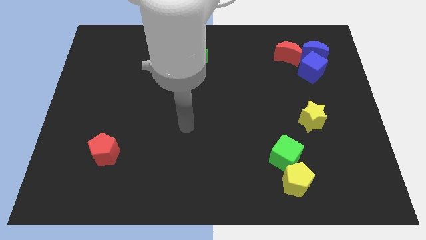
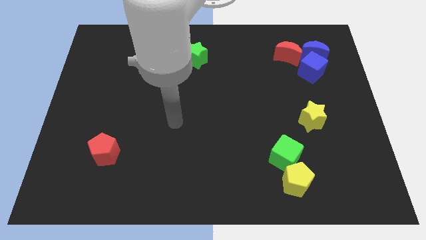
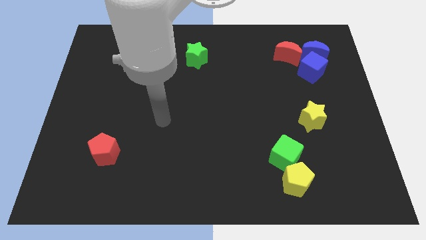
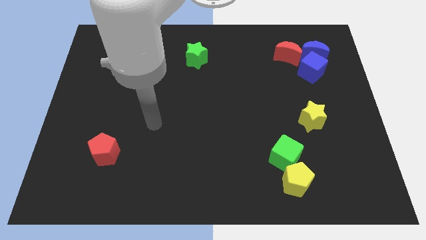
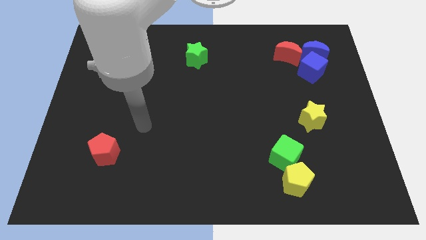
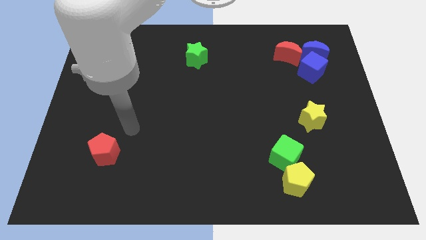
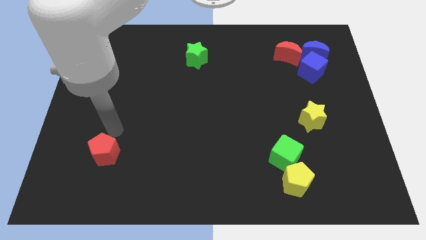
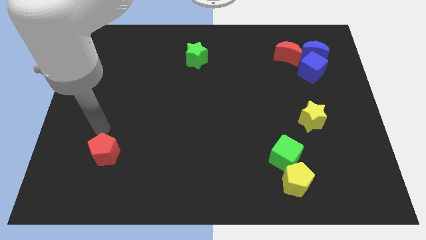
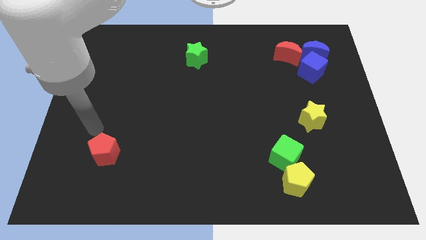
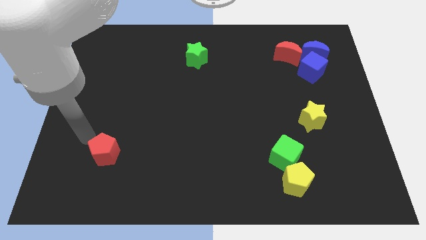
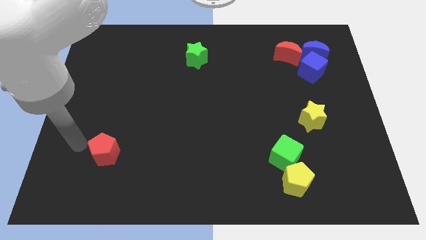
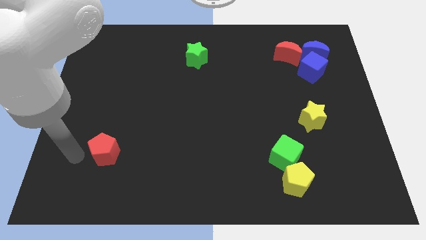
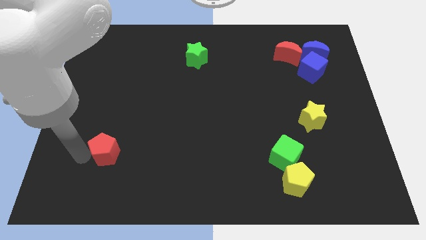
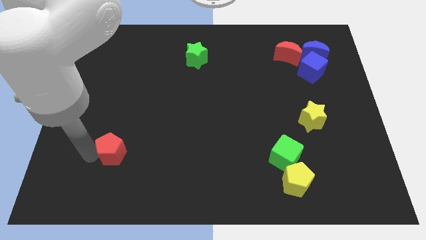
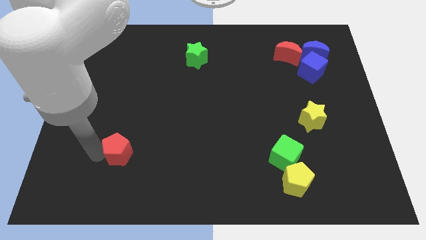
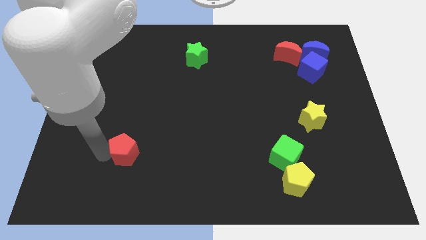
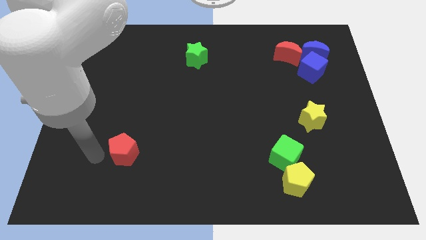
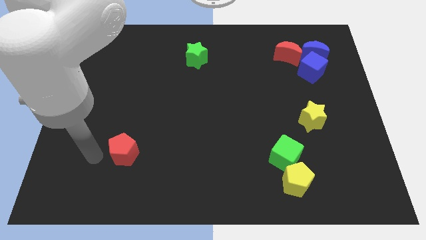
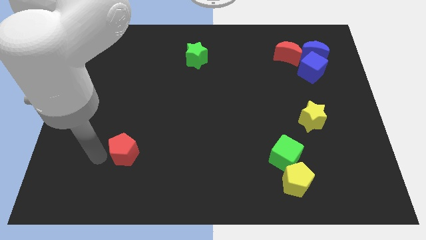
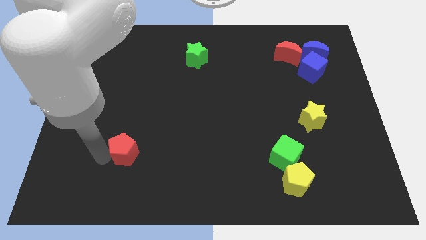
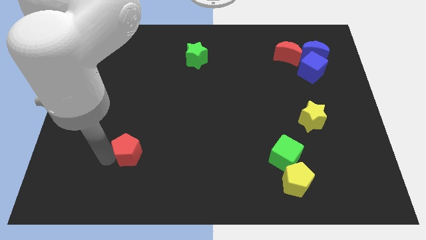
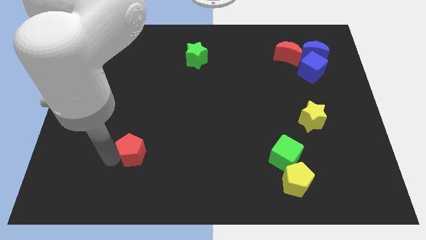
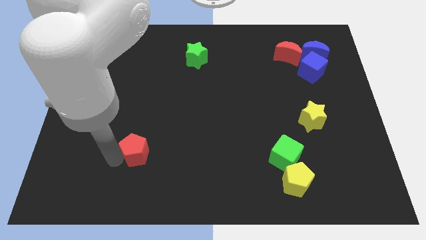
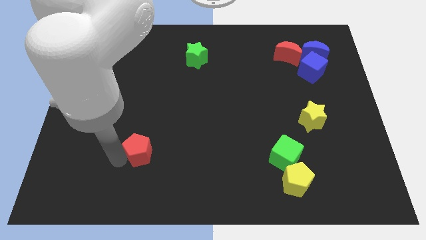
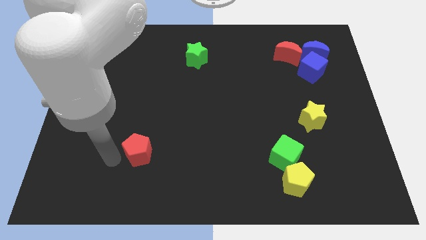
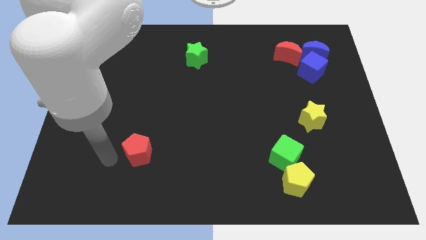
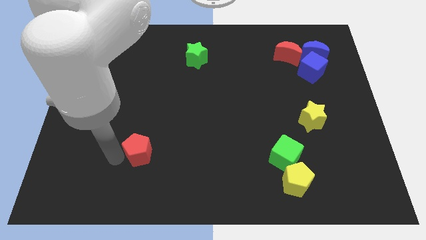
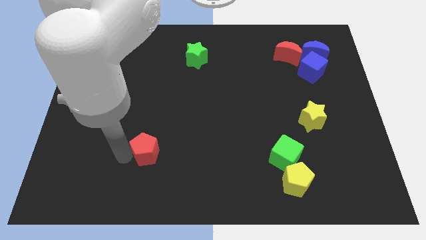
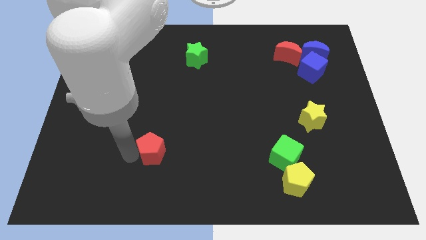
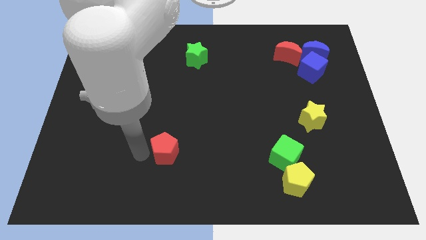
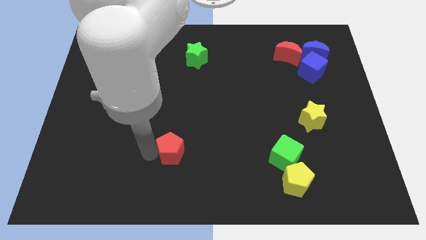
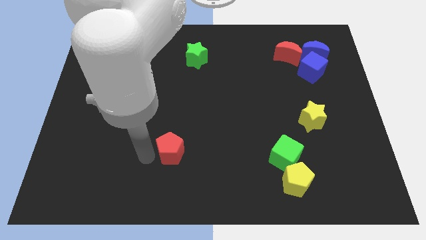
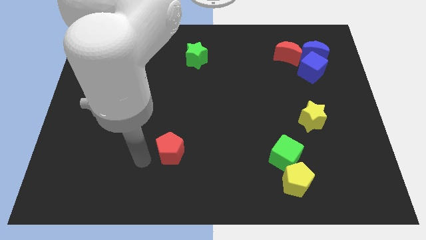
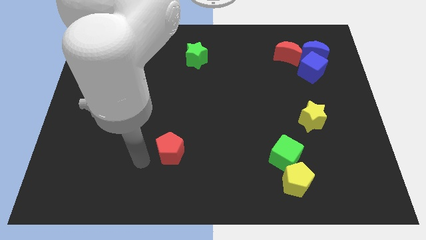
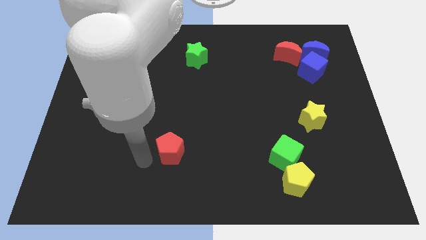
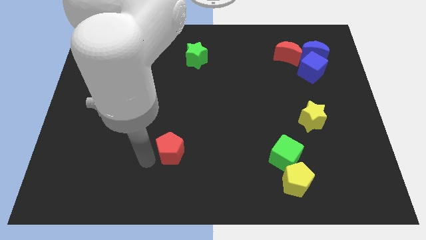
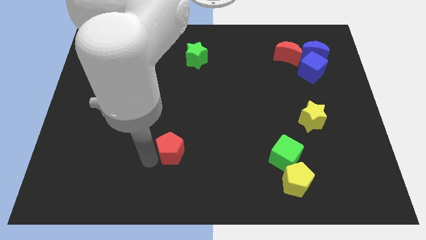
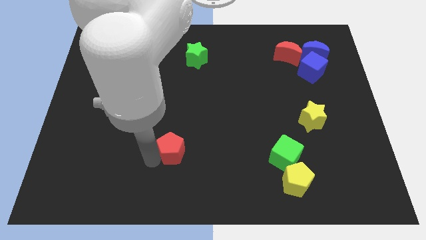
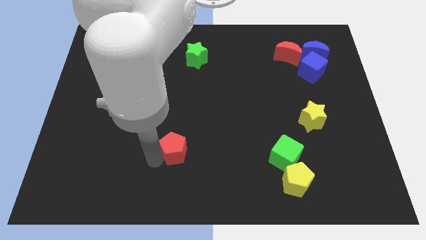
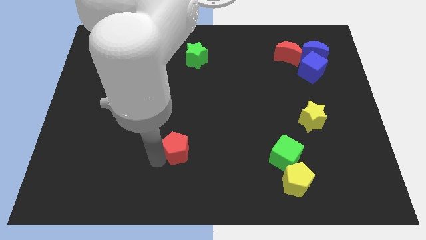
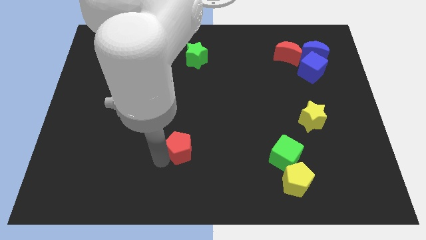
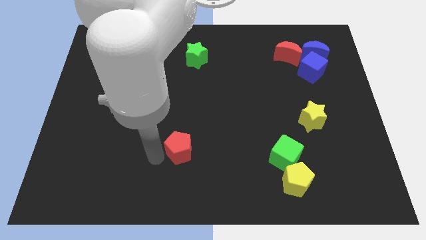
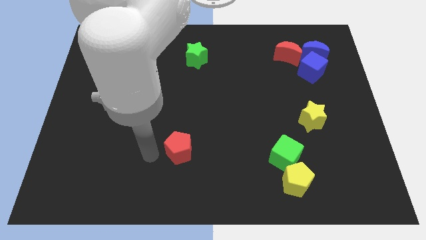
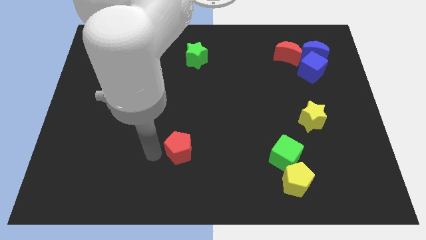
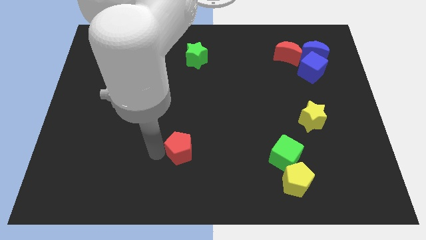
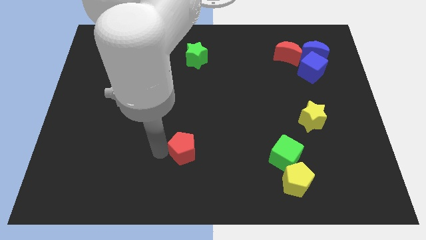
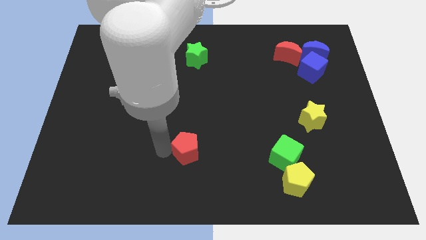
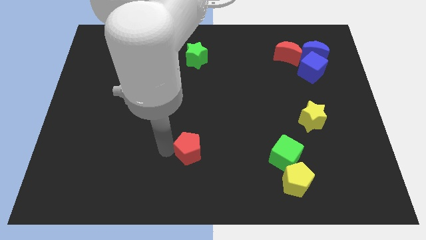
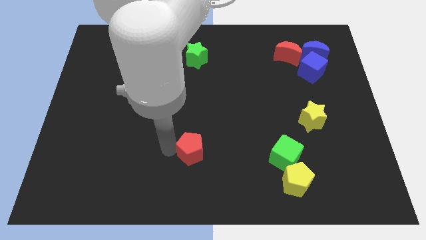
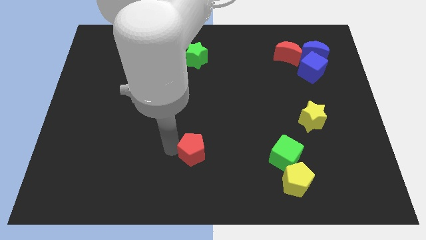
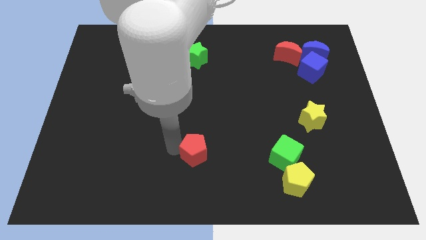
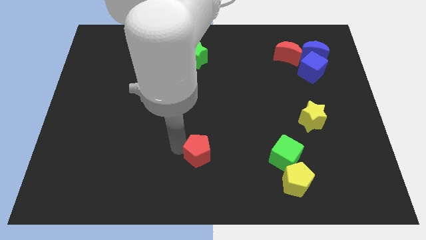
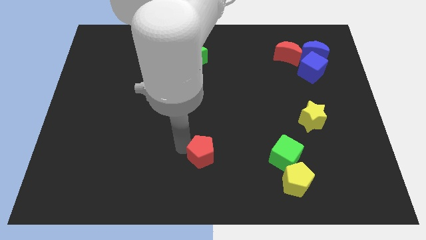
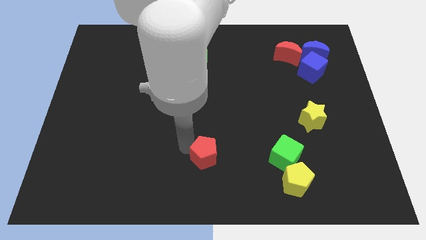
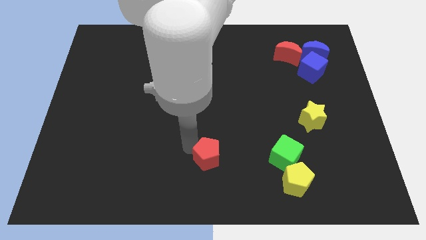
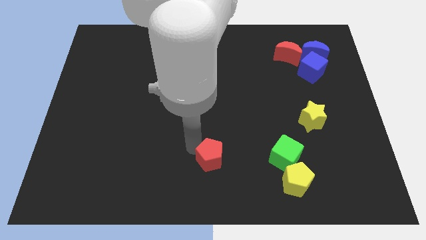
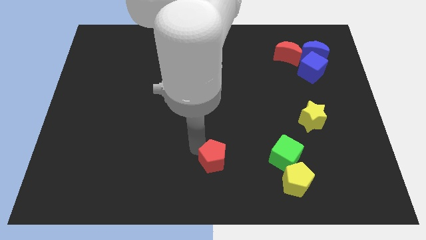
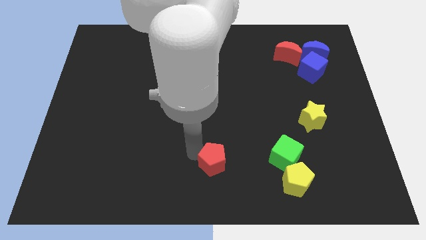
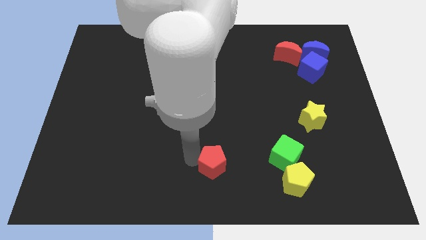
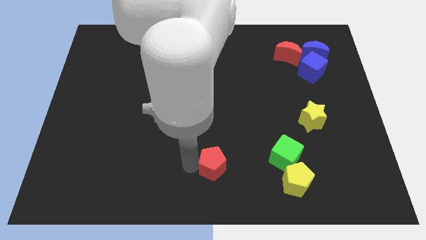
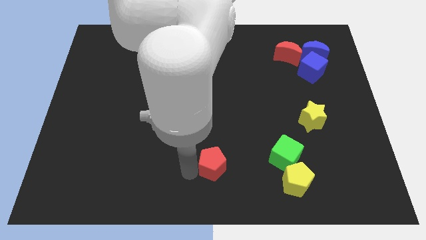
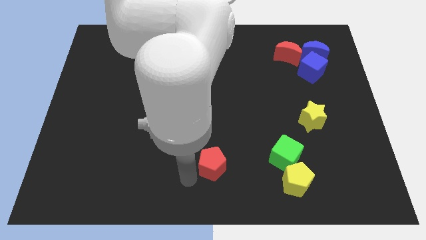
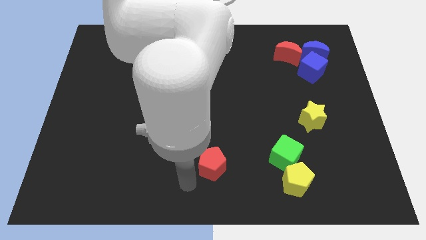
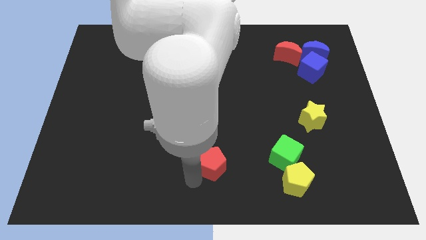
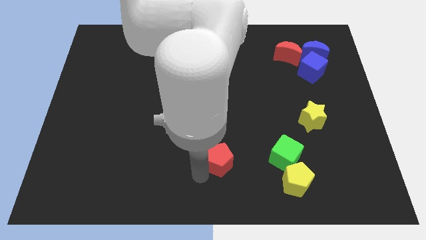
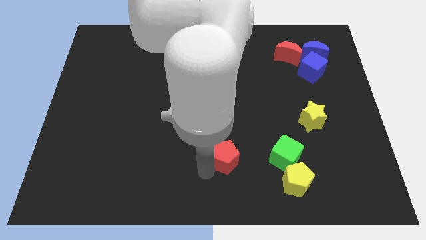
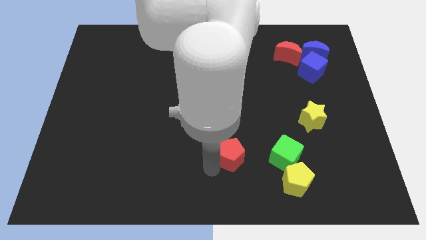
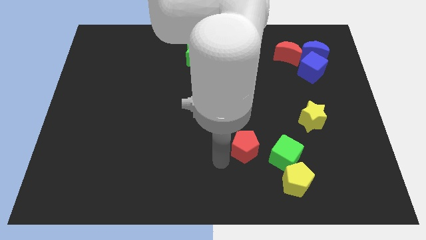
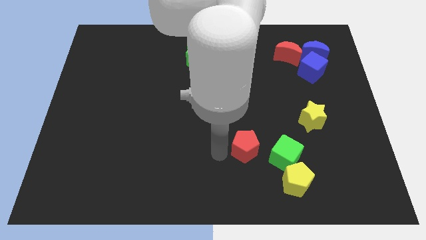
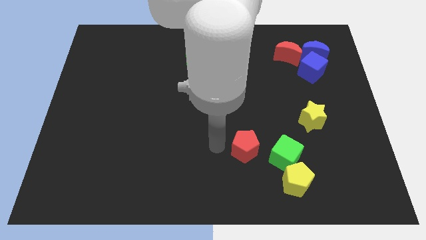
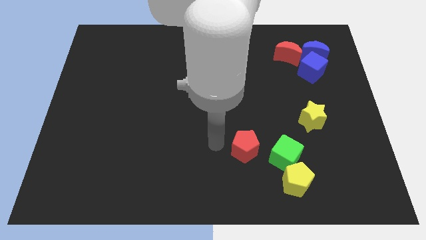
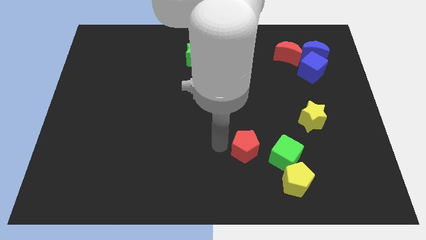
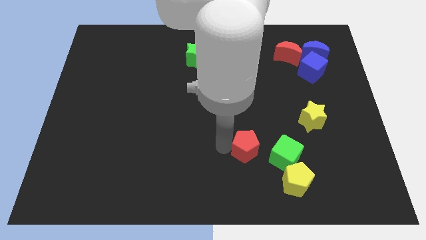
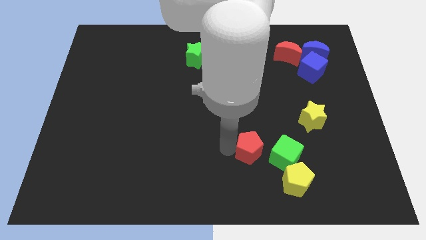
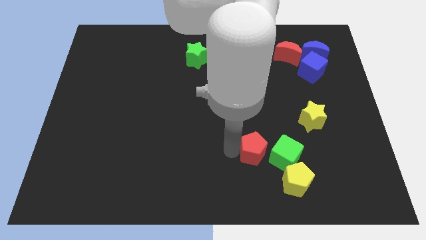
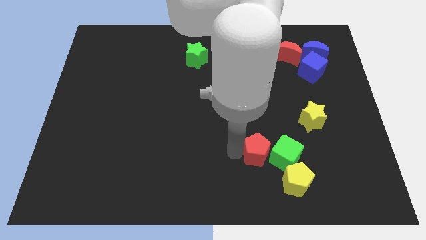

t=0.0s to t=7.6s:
put the red pentagon towards the green cube

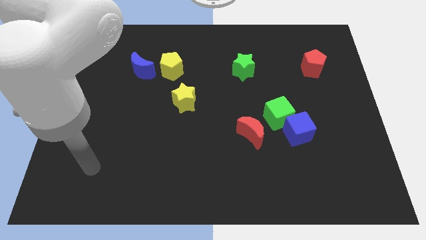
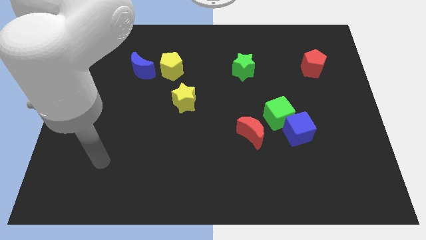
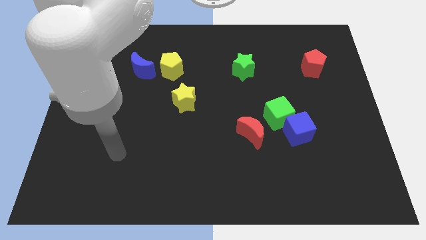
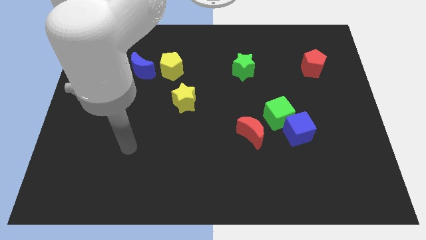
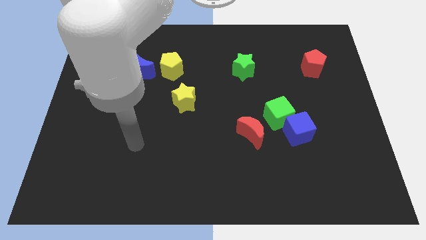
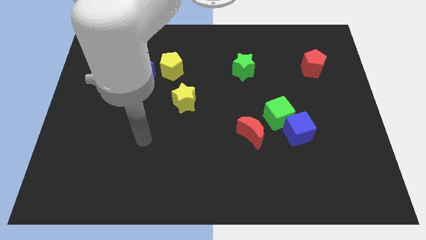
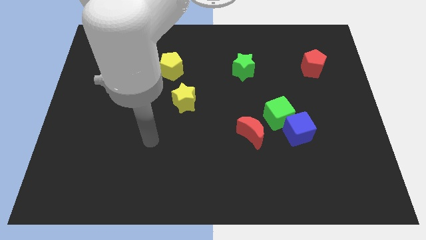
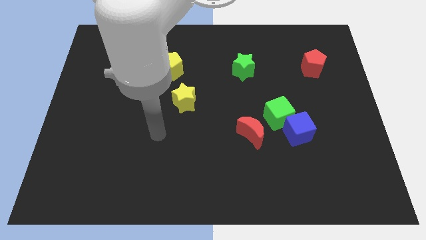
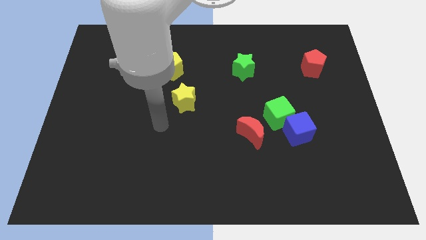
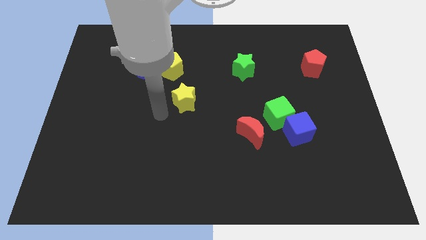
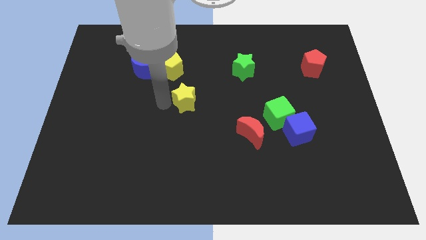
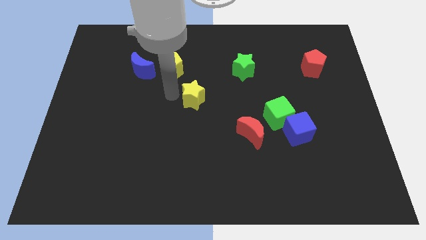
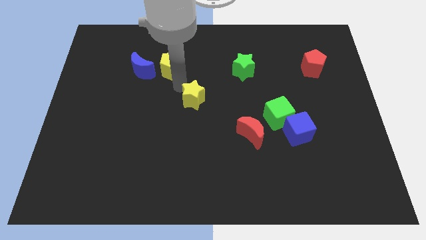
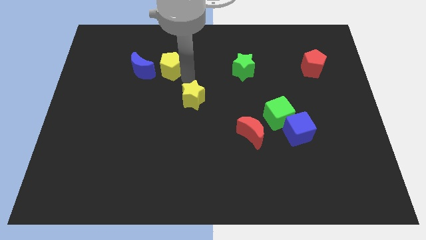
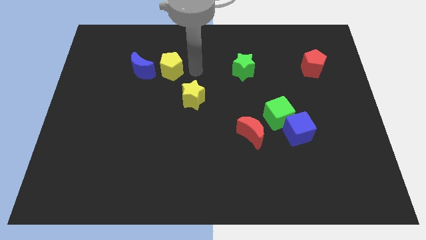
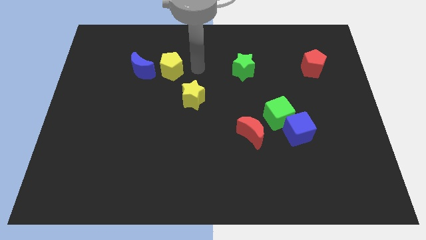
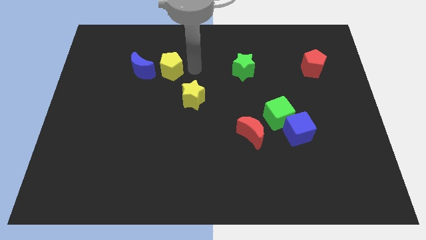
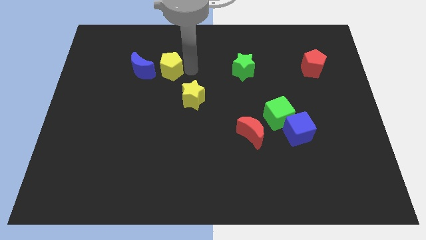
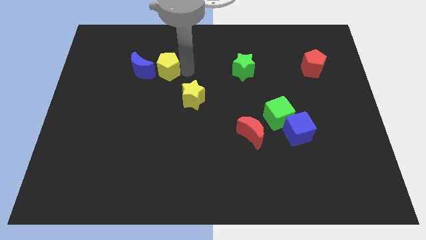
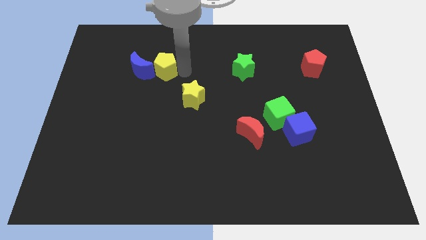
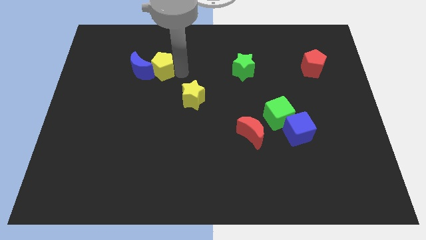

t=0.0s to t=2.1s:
slide the yellow pentagon towards the blue moon
